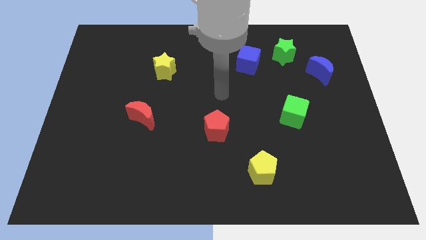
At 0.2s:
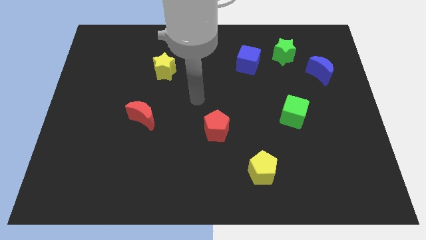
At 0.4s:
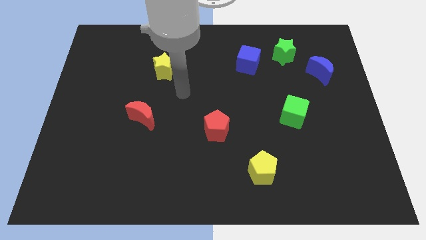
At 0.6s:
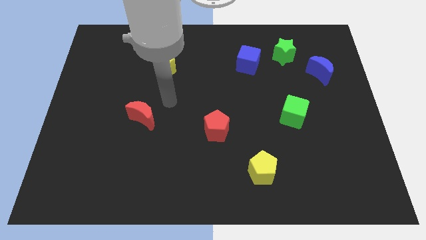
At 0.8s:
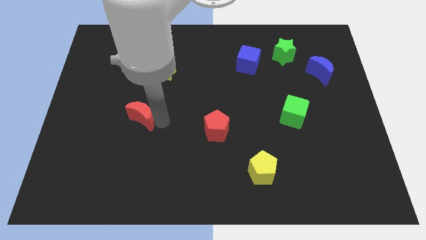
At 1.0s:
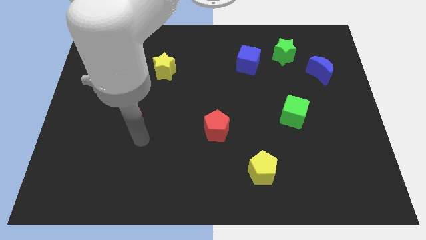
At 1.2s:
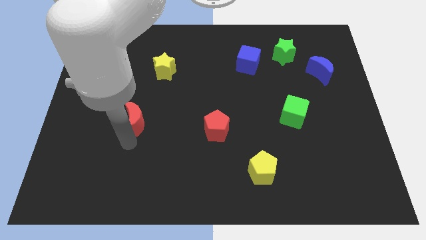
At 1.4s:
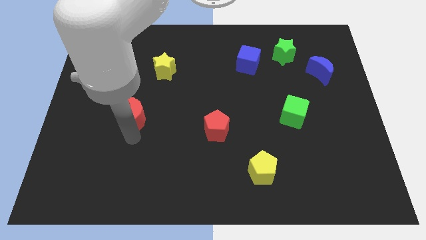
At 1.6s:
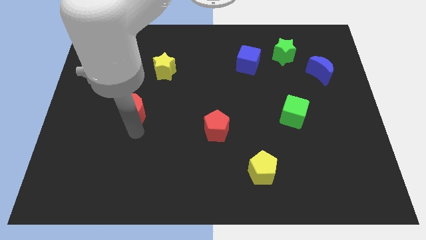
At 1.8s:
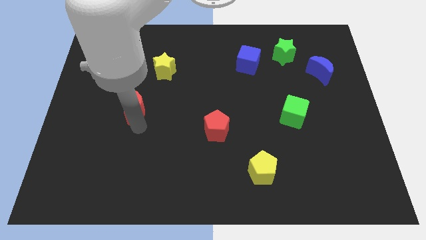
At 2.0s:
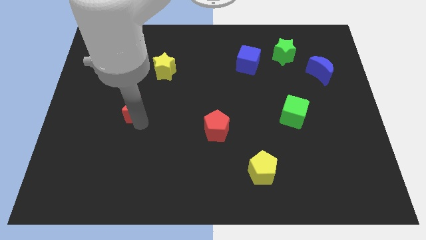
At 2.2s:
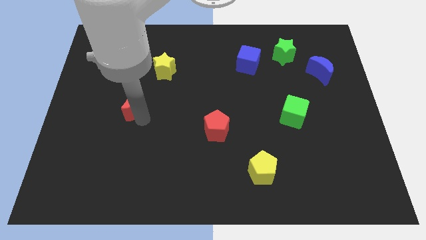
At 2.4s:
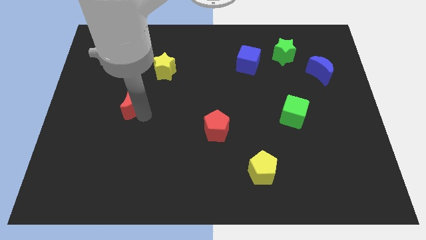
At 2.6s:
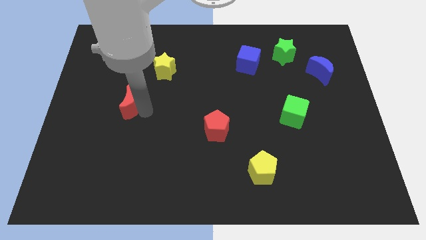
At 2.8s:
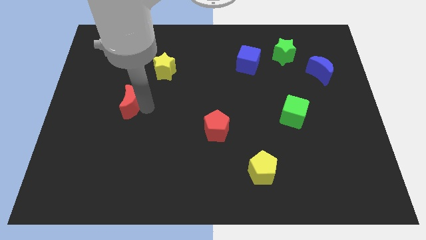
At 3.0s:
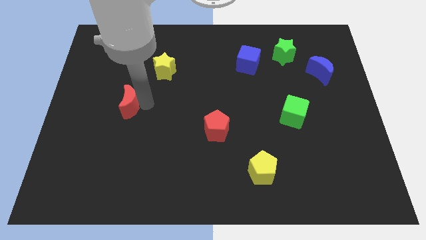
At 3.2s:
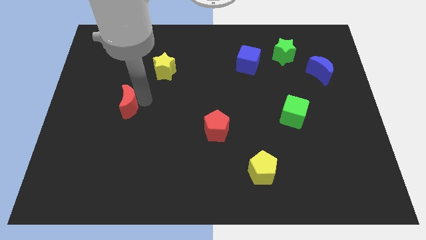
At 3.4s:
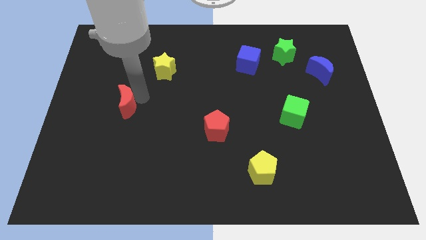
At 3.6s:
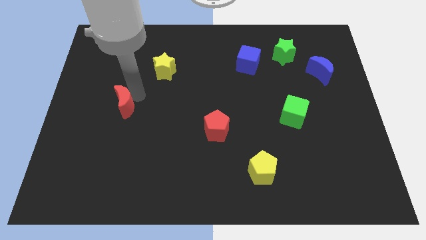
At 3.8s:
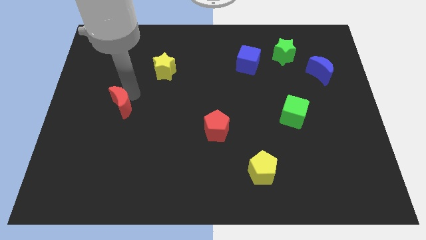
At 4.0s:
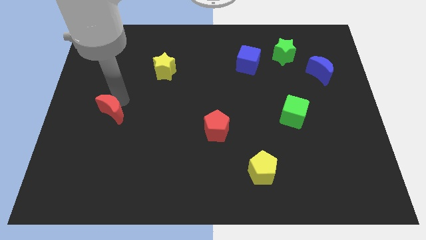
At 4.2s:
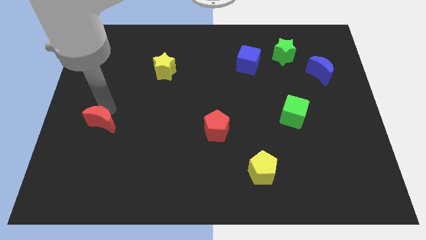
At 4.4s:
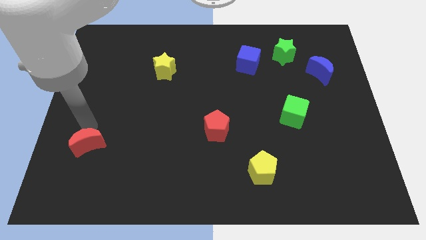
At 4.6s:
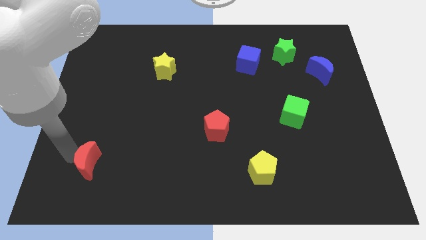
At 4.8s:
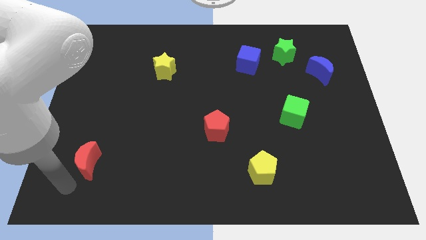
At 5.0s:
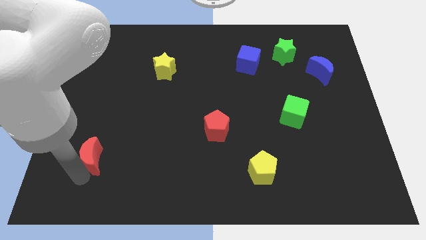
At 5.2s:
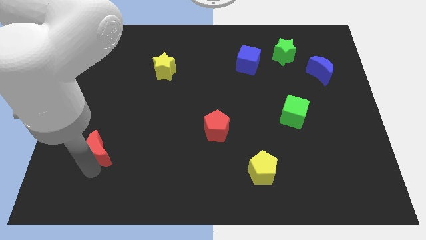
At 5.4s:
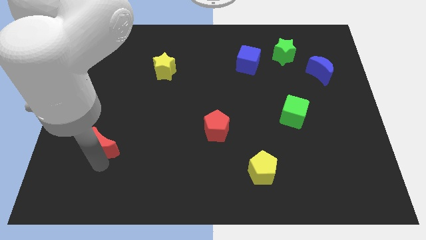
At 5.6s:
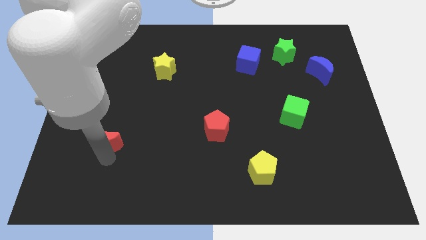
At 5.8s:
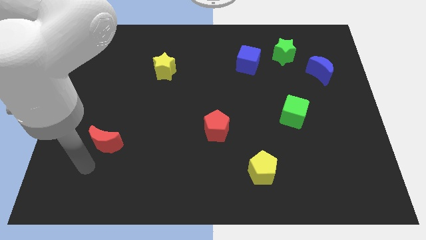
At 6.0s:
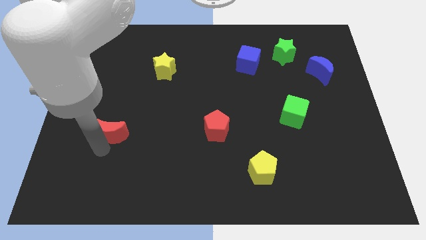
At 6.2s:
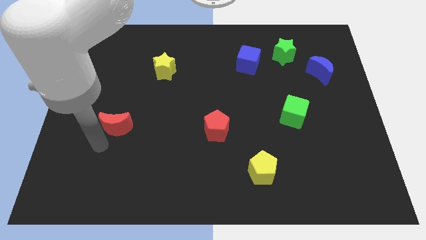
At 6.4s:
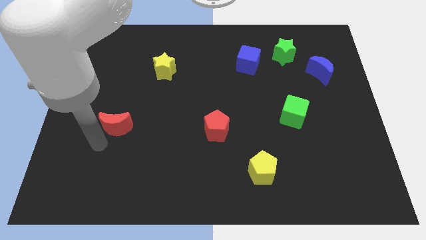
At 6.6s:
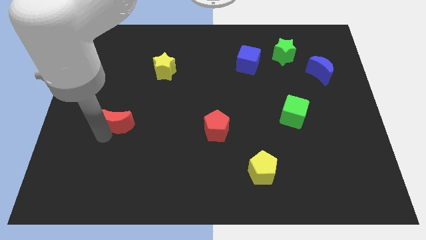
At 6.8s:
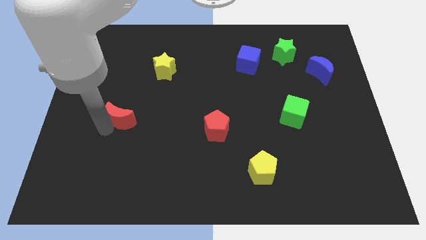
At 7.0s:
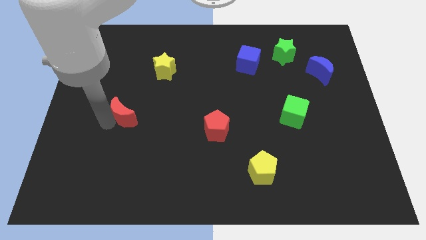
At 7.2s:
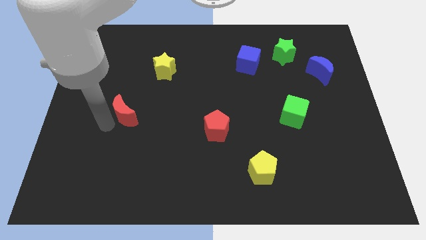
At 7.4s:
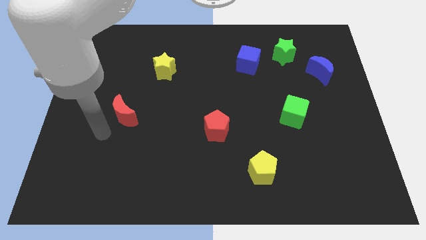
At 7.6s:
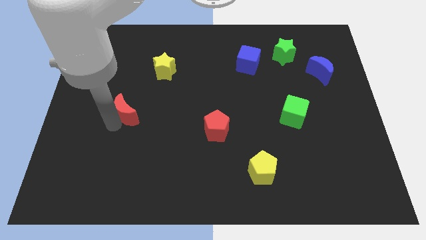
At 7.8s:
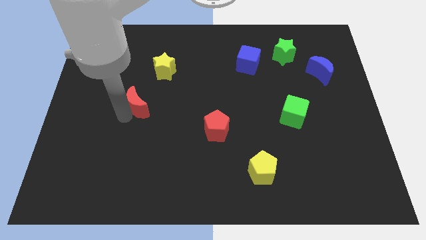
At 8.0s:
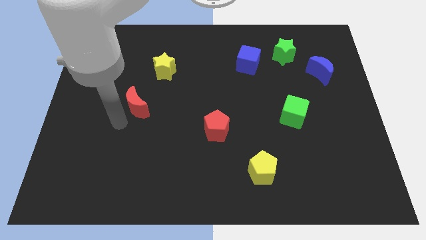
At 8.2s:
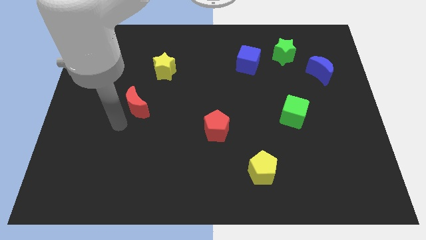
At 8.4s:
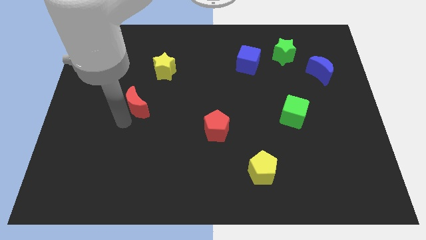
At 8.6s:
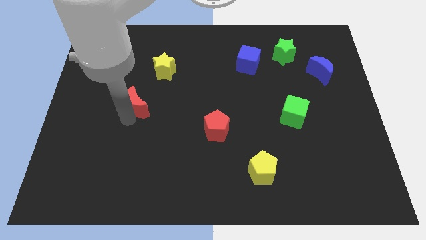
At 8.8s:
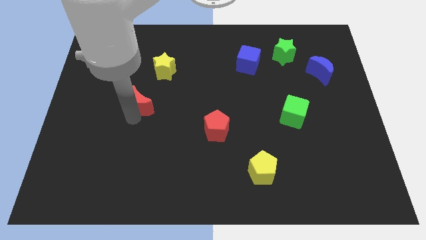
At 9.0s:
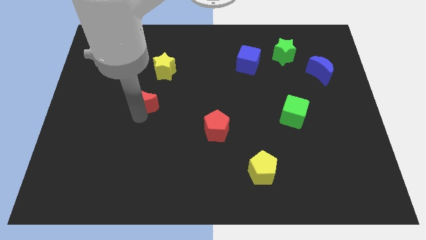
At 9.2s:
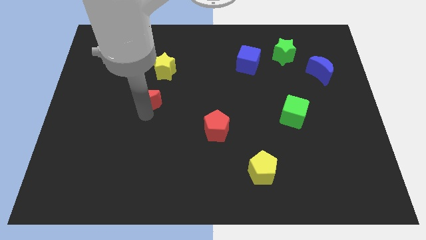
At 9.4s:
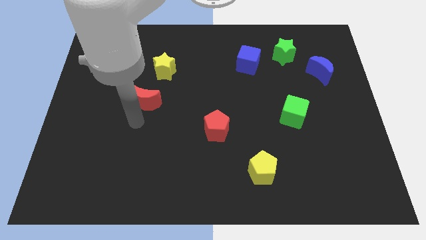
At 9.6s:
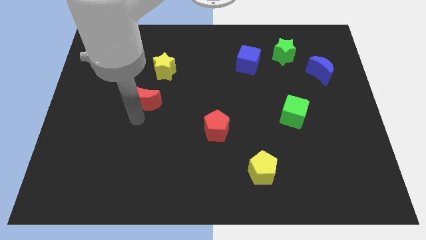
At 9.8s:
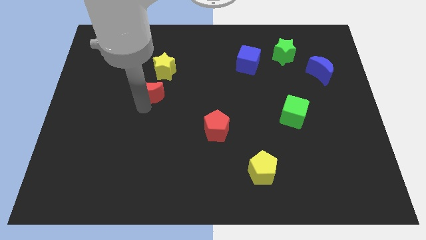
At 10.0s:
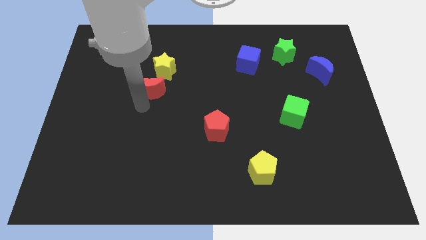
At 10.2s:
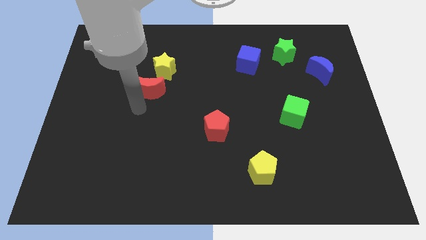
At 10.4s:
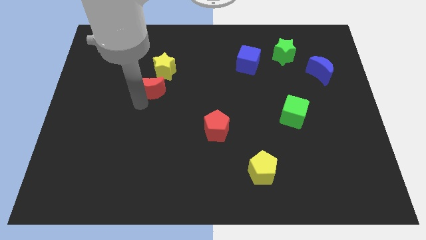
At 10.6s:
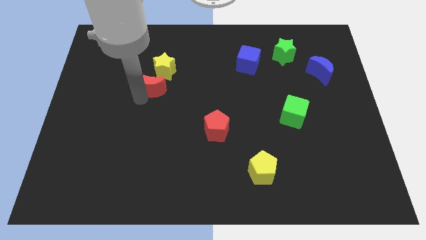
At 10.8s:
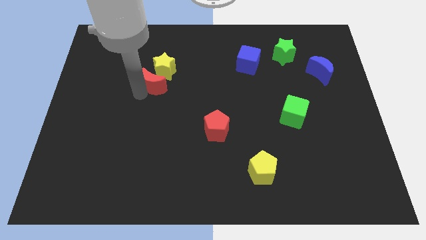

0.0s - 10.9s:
move the red moon towards the yellow star

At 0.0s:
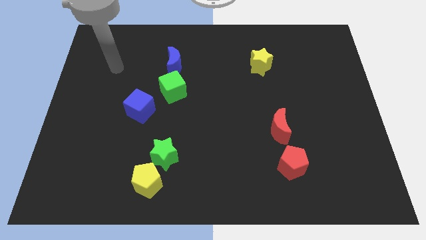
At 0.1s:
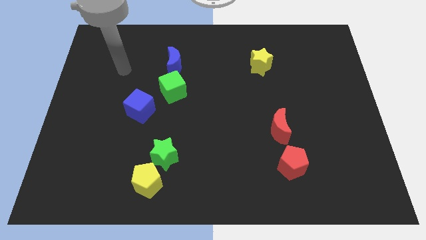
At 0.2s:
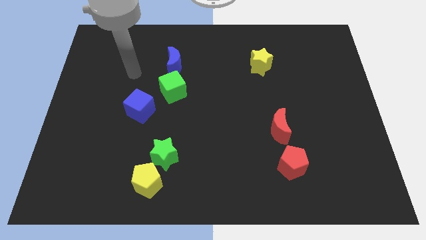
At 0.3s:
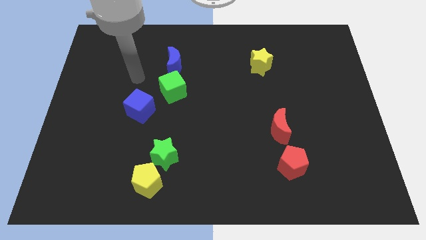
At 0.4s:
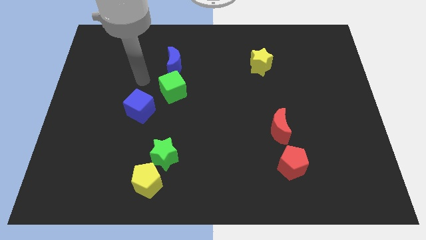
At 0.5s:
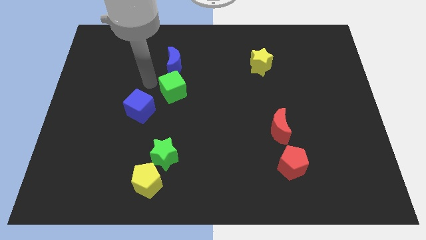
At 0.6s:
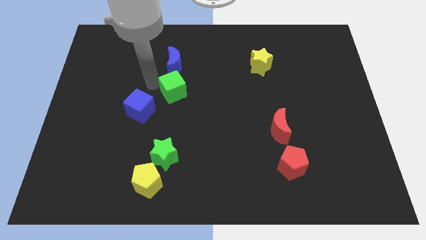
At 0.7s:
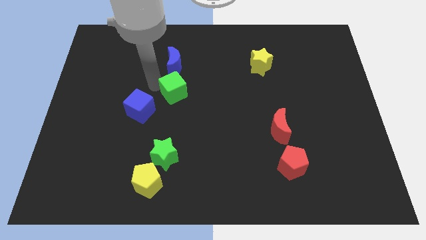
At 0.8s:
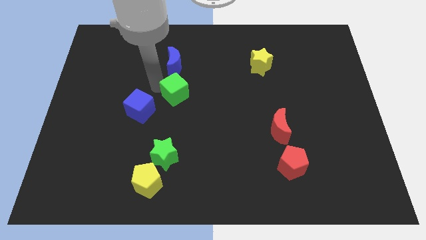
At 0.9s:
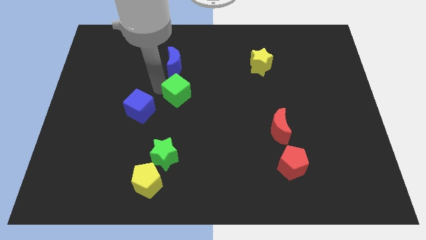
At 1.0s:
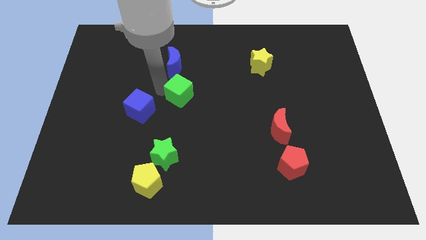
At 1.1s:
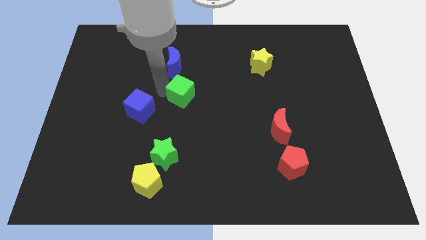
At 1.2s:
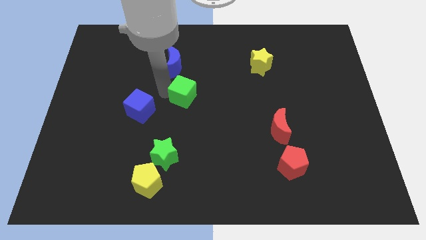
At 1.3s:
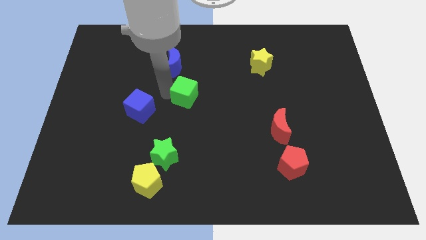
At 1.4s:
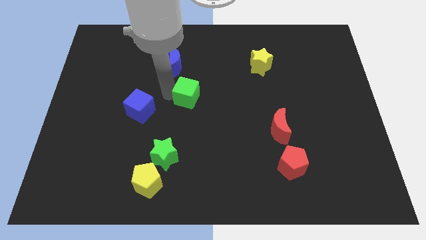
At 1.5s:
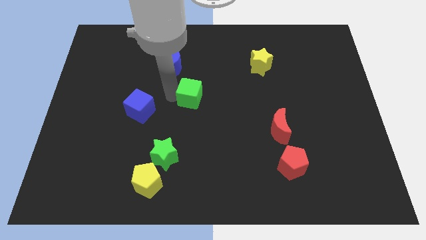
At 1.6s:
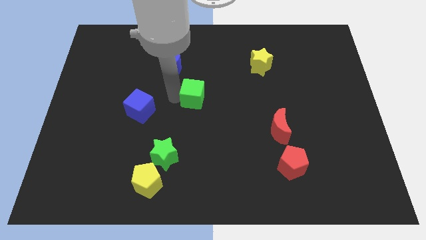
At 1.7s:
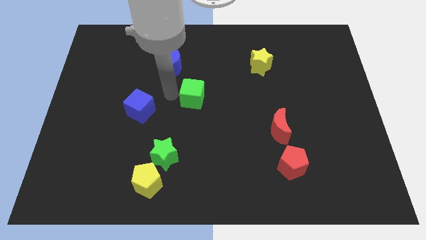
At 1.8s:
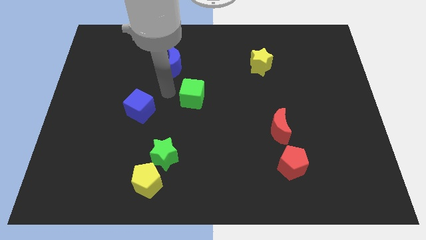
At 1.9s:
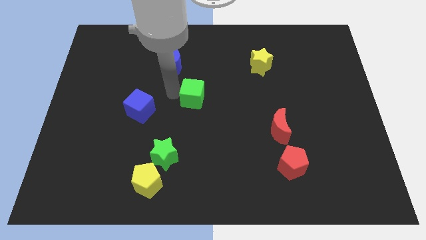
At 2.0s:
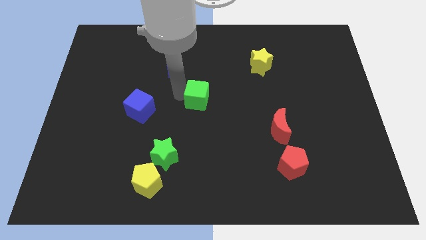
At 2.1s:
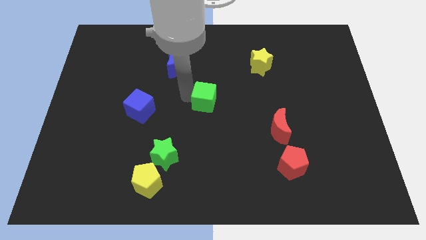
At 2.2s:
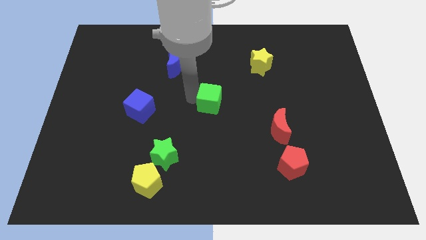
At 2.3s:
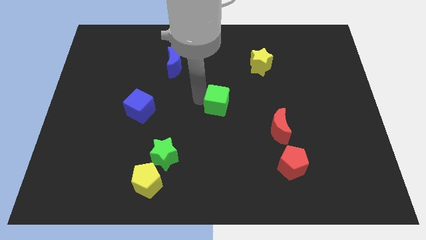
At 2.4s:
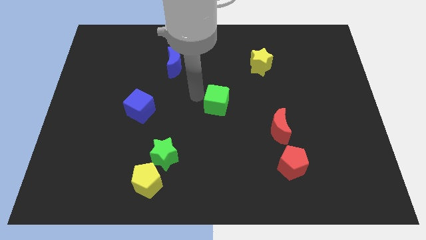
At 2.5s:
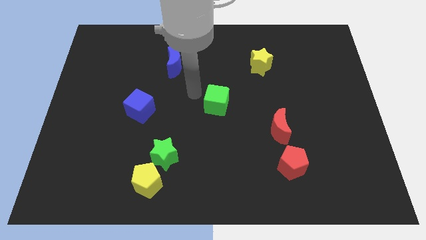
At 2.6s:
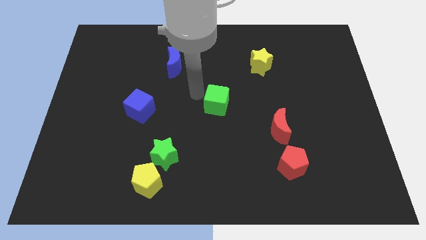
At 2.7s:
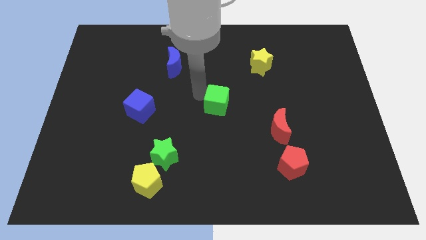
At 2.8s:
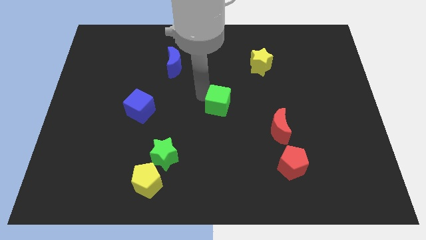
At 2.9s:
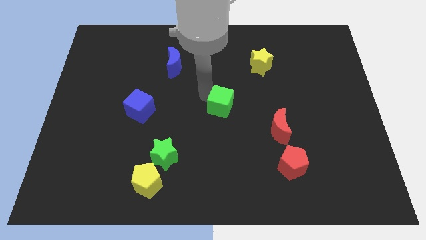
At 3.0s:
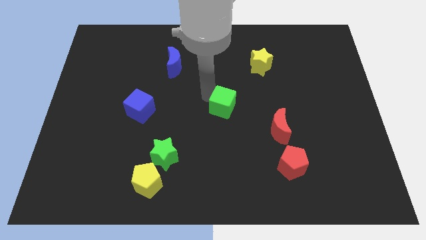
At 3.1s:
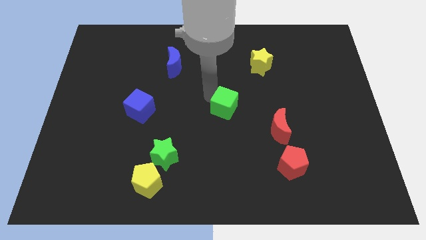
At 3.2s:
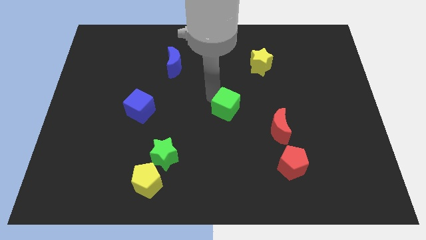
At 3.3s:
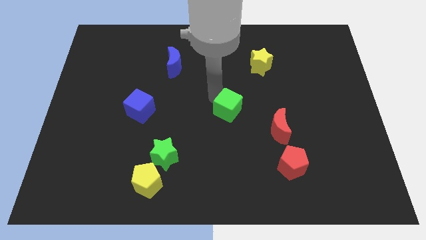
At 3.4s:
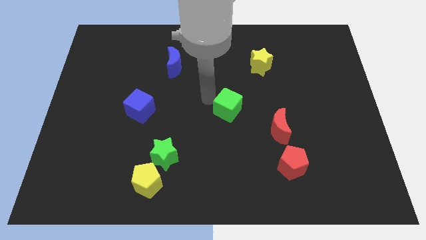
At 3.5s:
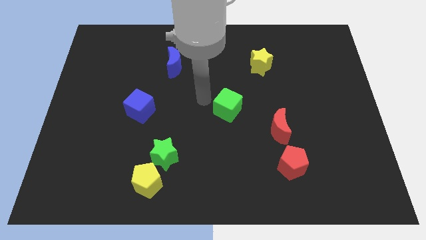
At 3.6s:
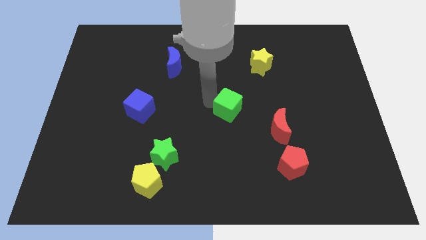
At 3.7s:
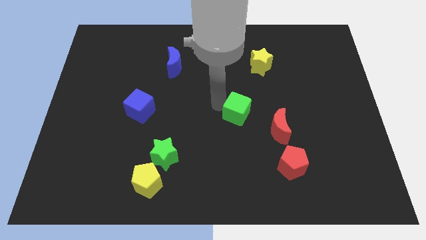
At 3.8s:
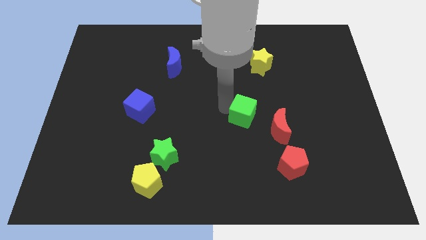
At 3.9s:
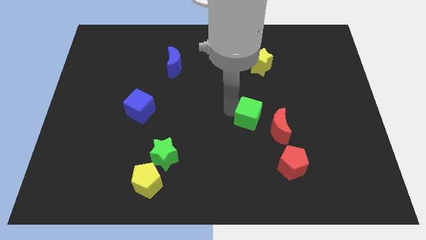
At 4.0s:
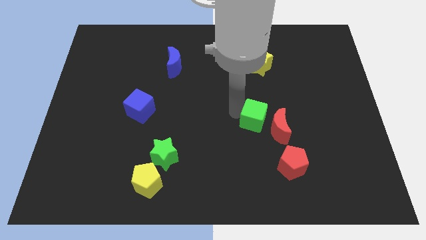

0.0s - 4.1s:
slide the green cube to the red moon
